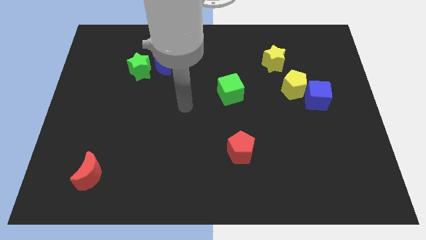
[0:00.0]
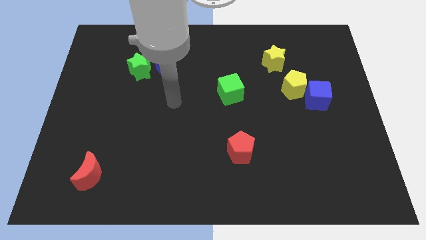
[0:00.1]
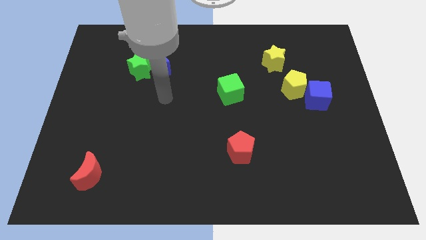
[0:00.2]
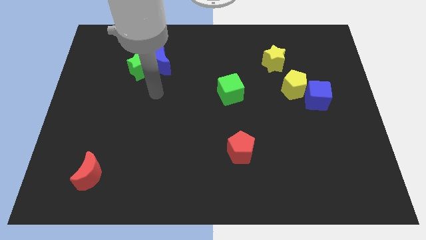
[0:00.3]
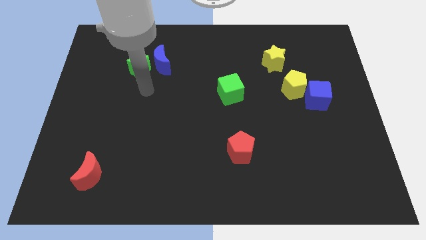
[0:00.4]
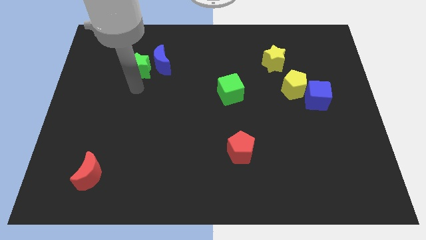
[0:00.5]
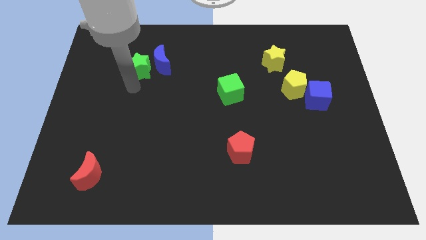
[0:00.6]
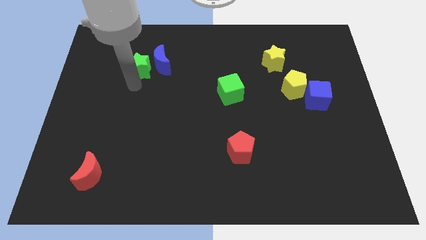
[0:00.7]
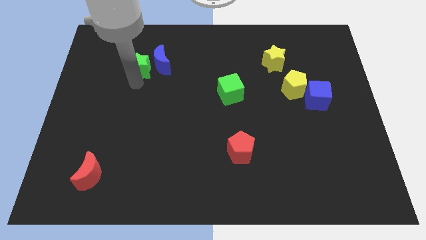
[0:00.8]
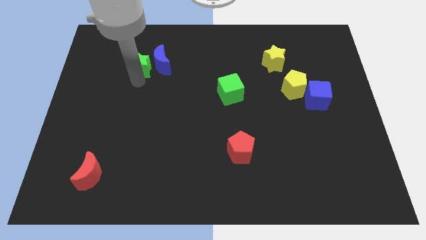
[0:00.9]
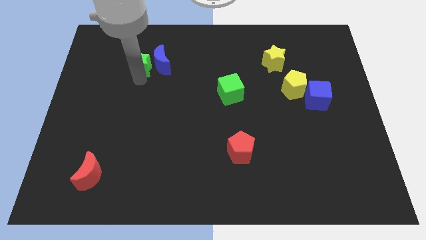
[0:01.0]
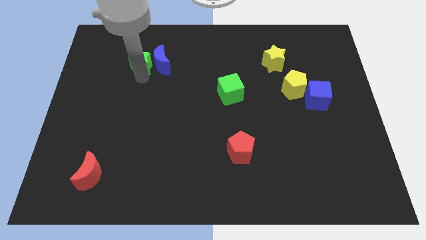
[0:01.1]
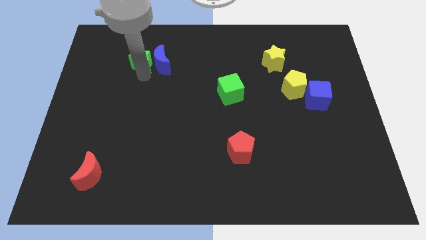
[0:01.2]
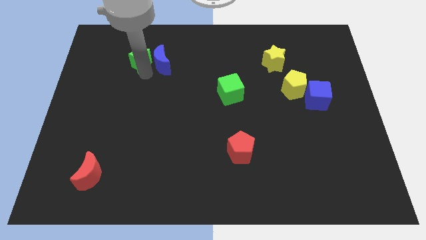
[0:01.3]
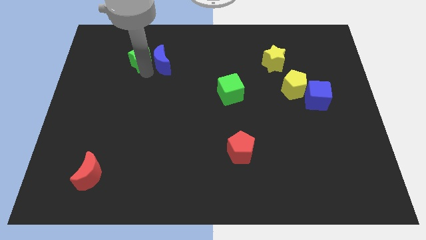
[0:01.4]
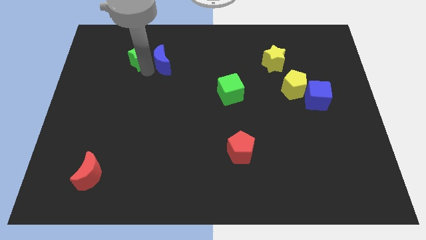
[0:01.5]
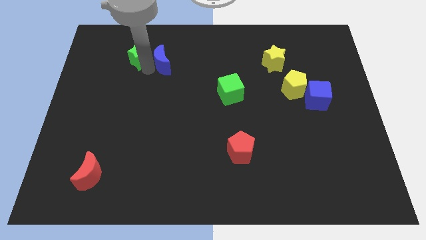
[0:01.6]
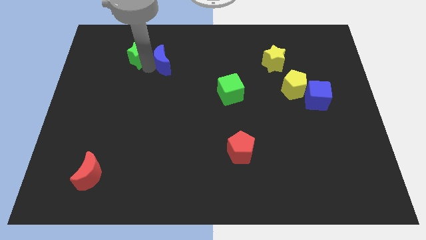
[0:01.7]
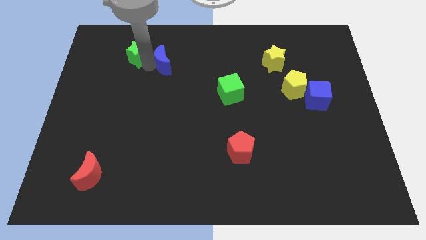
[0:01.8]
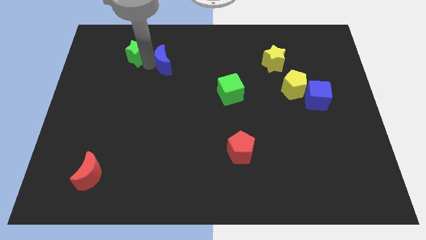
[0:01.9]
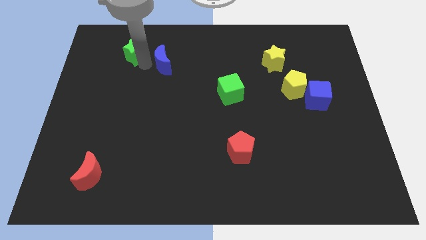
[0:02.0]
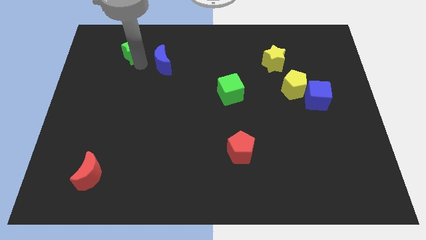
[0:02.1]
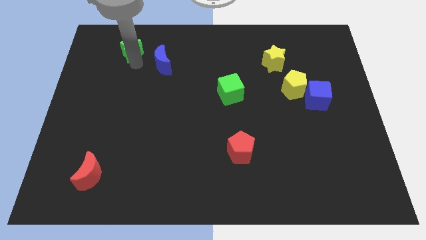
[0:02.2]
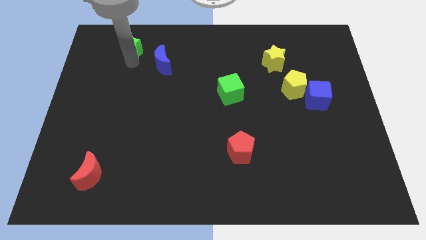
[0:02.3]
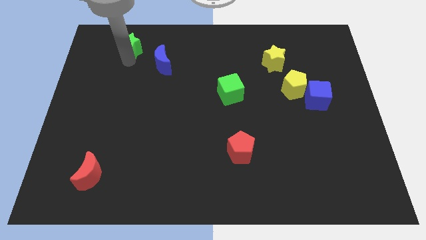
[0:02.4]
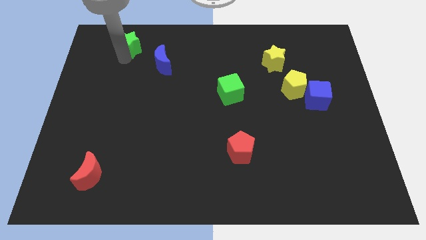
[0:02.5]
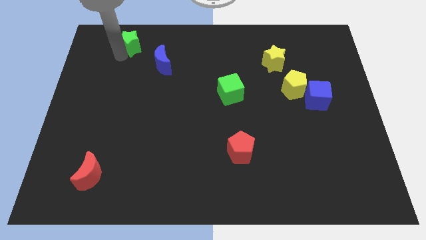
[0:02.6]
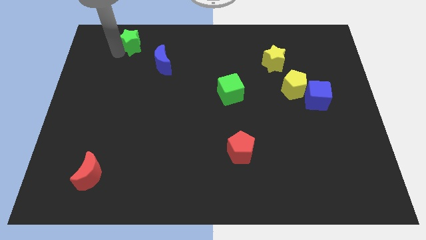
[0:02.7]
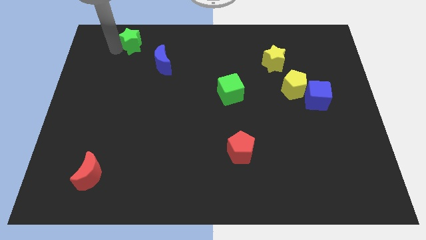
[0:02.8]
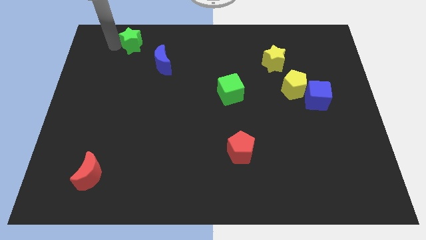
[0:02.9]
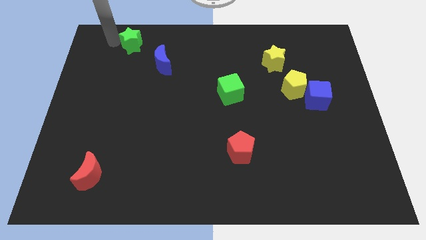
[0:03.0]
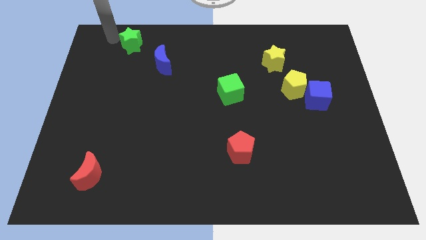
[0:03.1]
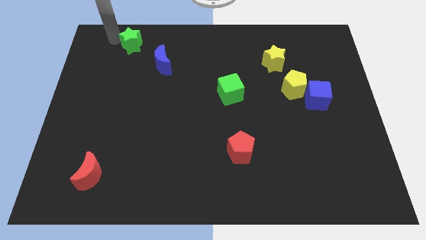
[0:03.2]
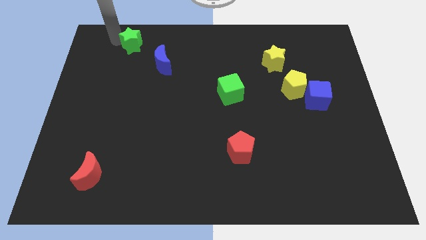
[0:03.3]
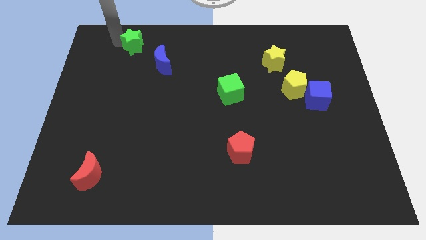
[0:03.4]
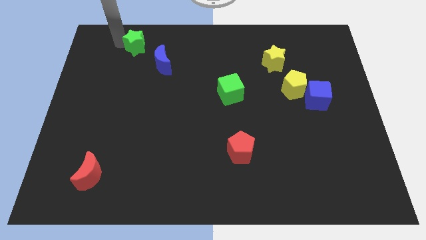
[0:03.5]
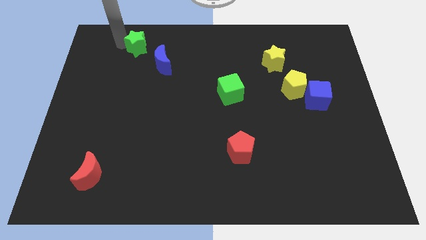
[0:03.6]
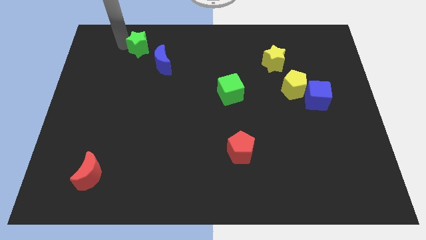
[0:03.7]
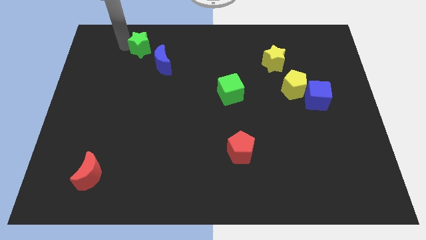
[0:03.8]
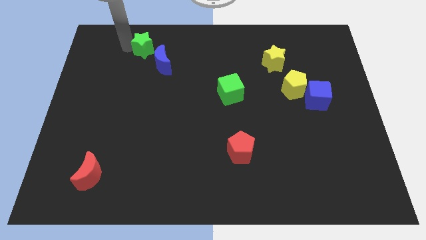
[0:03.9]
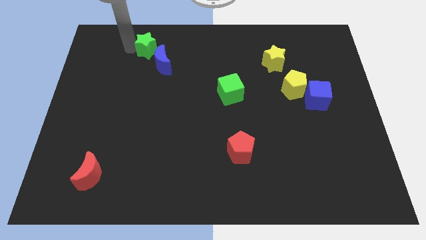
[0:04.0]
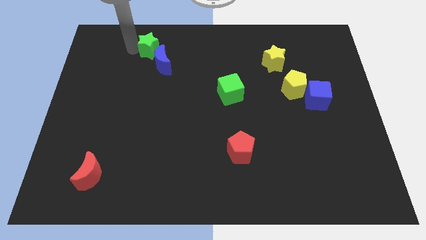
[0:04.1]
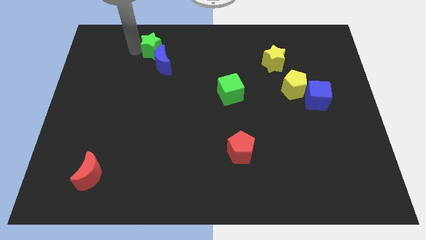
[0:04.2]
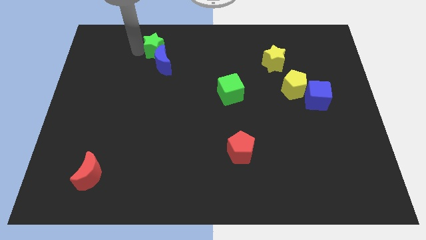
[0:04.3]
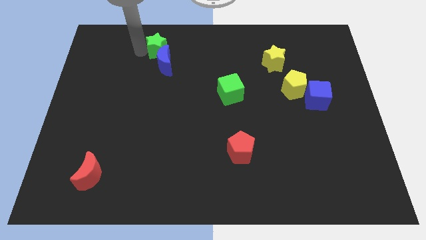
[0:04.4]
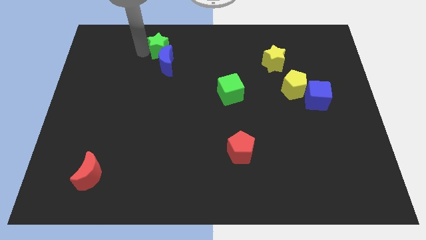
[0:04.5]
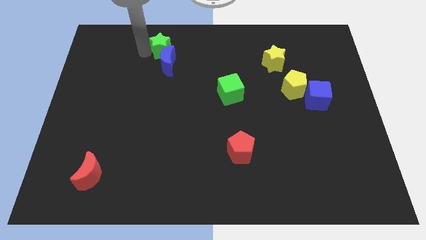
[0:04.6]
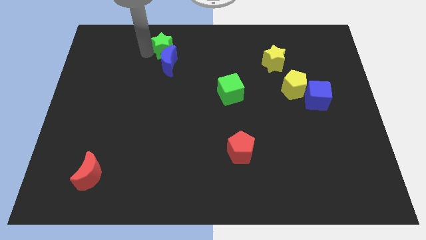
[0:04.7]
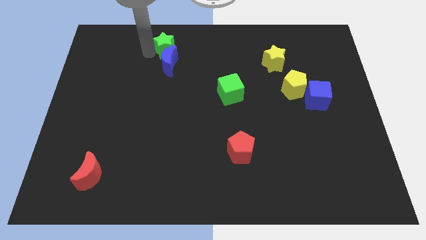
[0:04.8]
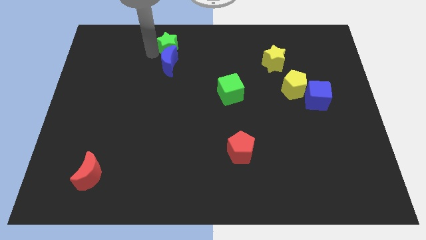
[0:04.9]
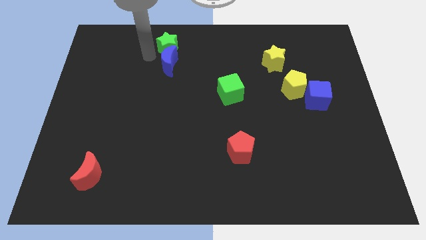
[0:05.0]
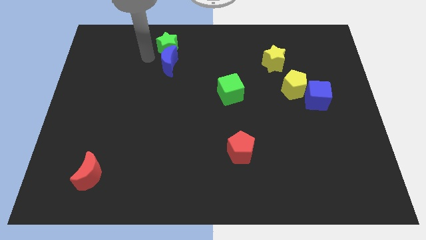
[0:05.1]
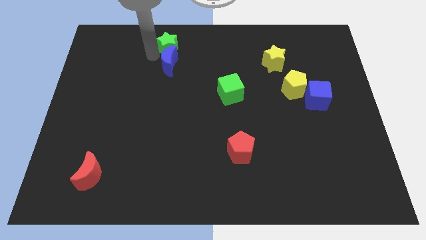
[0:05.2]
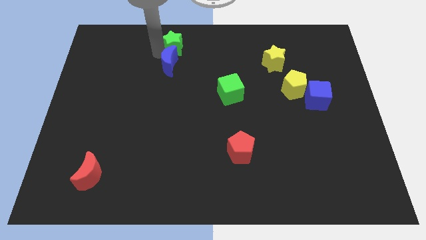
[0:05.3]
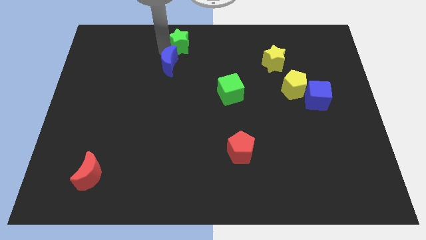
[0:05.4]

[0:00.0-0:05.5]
put the green star to the top
